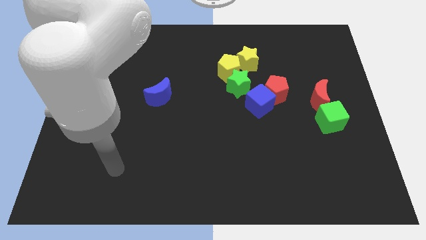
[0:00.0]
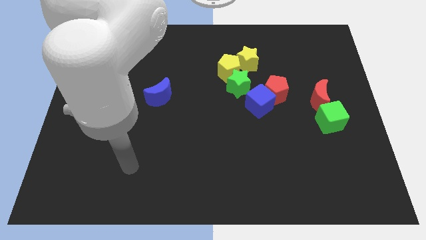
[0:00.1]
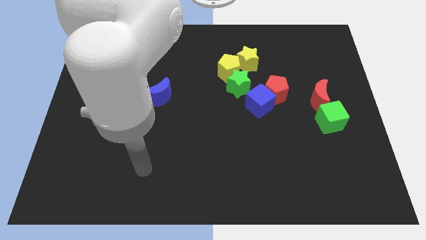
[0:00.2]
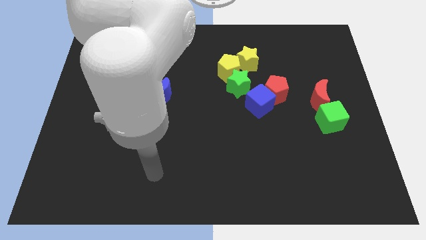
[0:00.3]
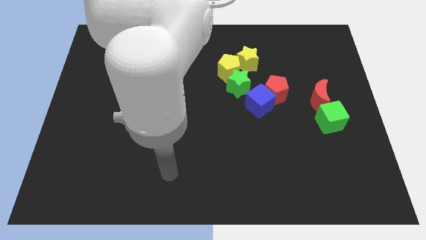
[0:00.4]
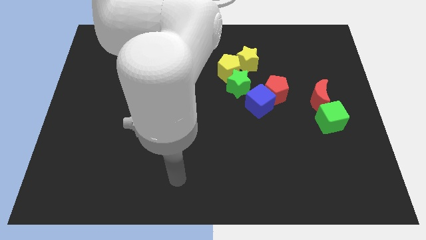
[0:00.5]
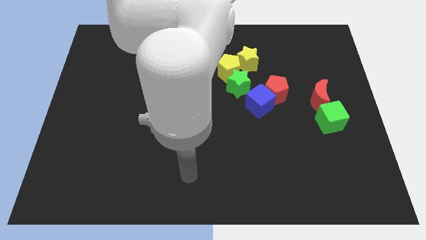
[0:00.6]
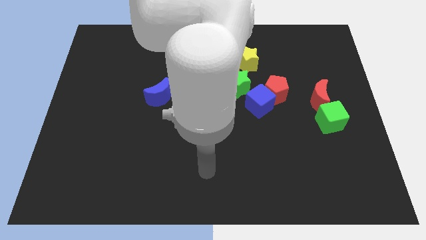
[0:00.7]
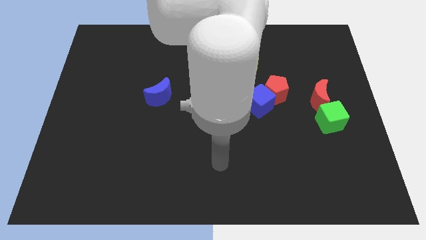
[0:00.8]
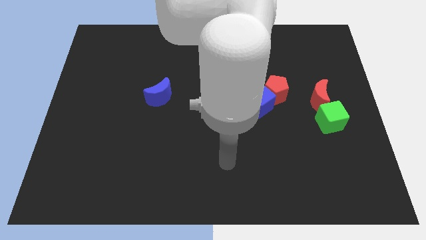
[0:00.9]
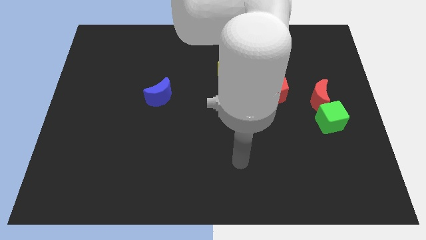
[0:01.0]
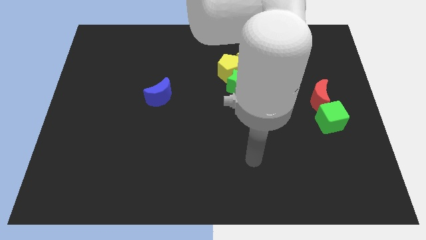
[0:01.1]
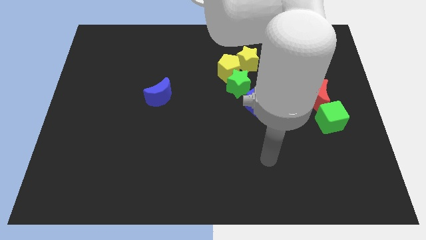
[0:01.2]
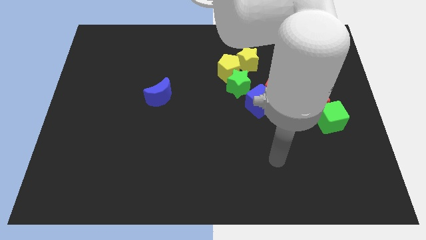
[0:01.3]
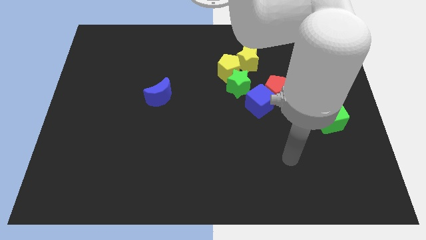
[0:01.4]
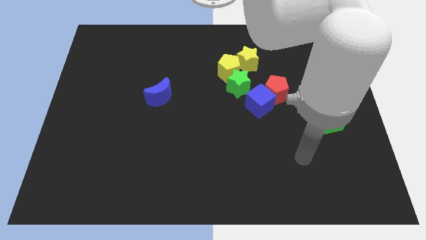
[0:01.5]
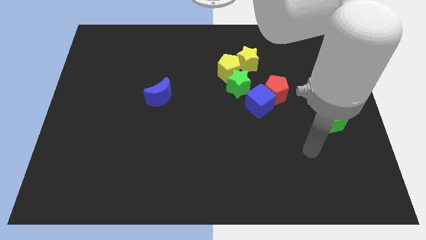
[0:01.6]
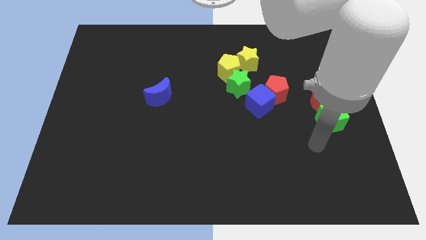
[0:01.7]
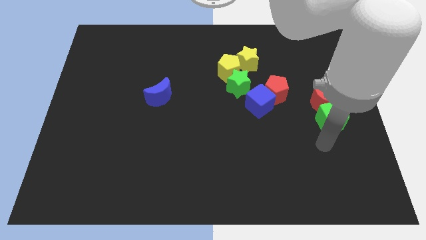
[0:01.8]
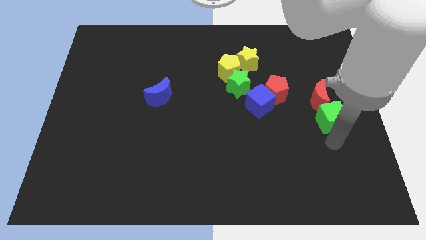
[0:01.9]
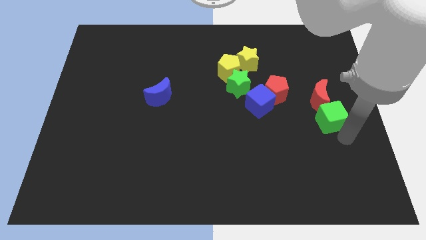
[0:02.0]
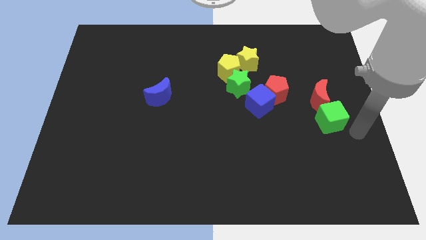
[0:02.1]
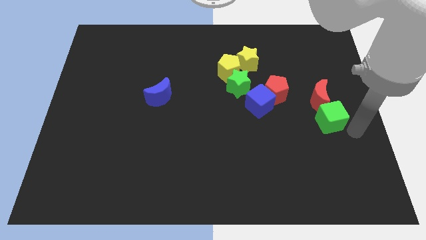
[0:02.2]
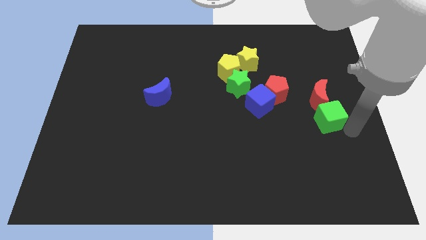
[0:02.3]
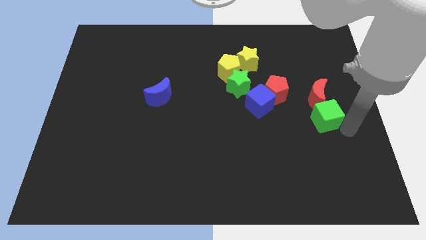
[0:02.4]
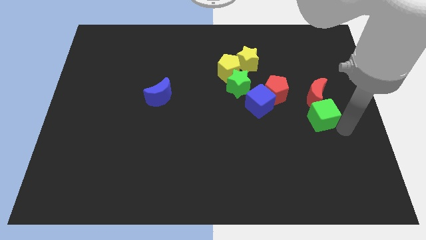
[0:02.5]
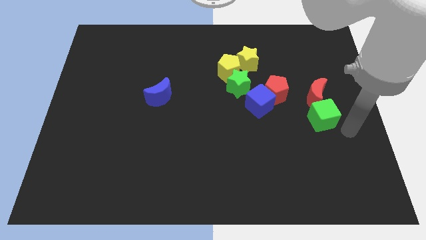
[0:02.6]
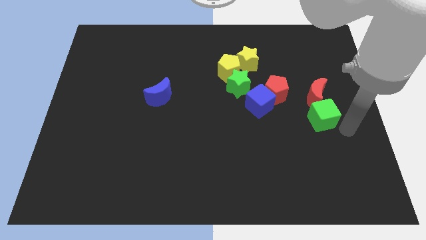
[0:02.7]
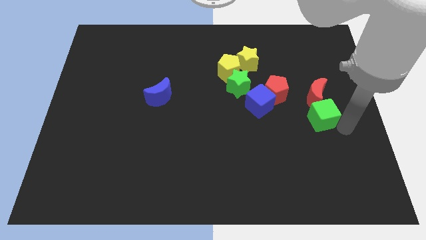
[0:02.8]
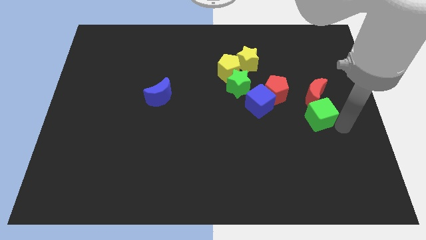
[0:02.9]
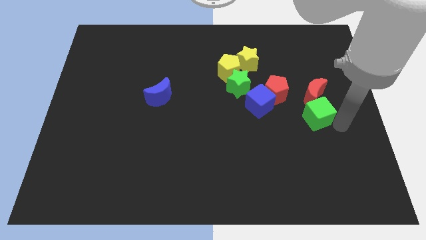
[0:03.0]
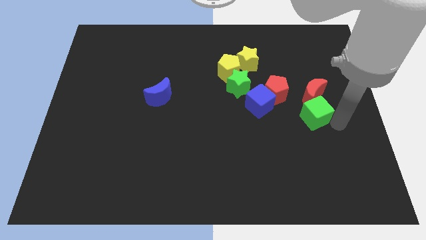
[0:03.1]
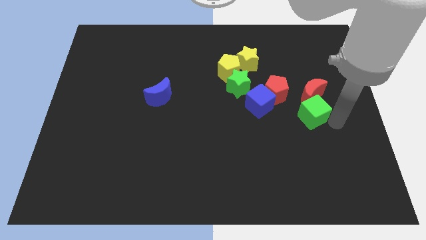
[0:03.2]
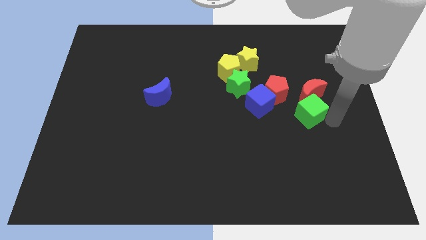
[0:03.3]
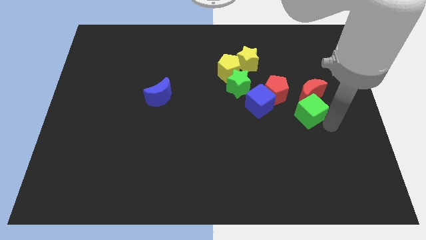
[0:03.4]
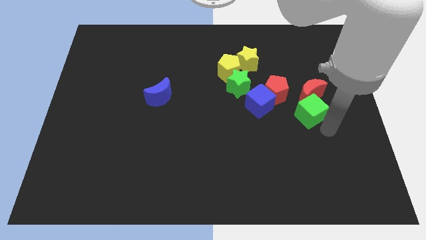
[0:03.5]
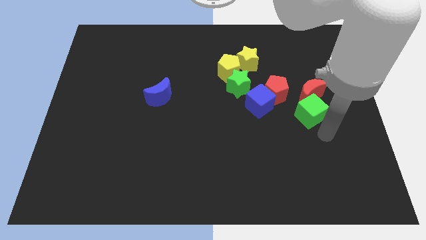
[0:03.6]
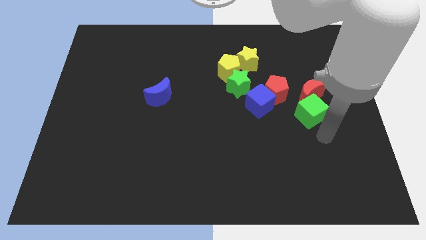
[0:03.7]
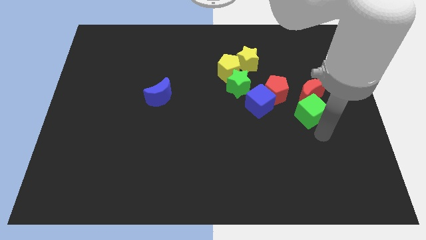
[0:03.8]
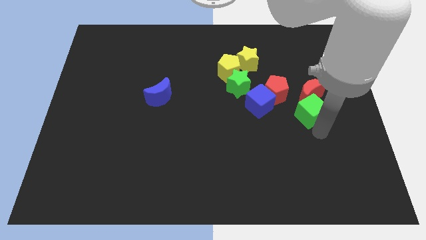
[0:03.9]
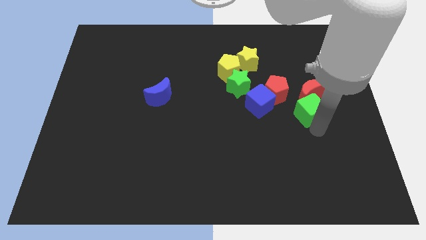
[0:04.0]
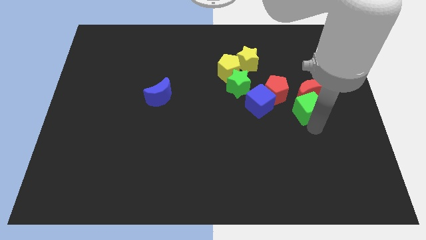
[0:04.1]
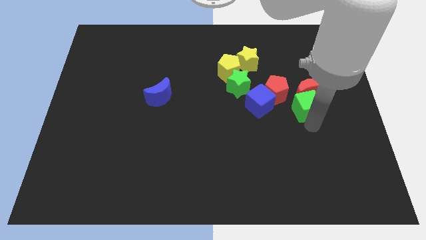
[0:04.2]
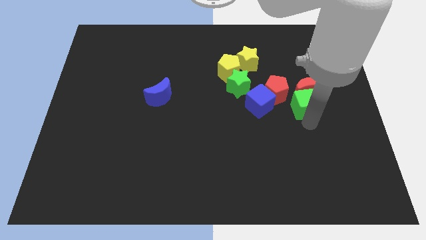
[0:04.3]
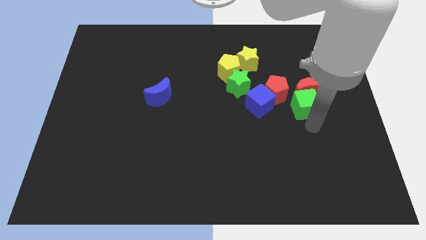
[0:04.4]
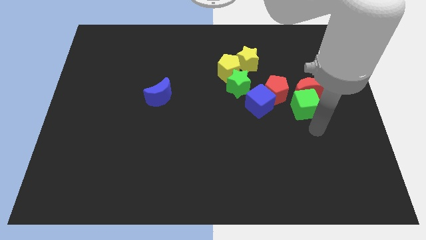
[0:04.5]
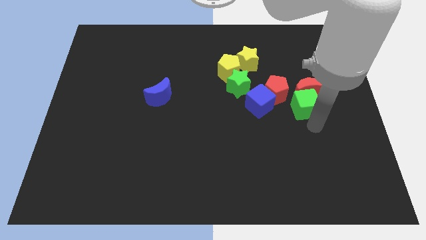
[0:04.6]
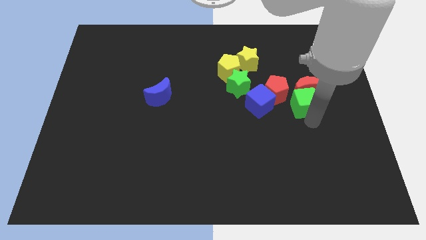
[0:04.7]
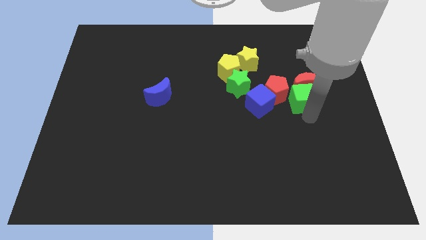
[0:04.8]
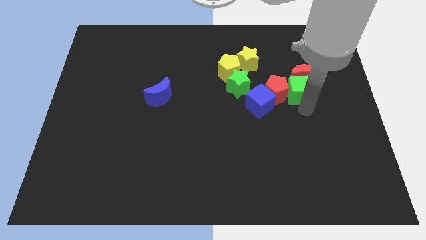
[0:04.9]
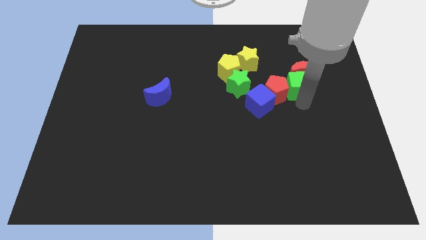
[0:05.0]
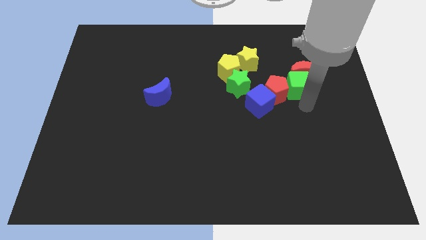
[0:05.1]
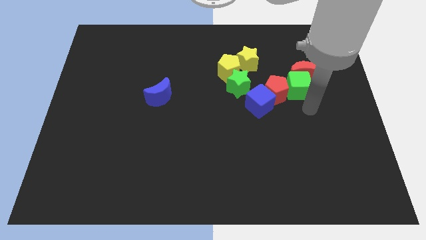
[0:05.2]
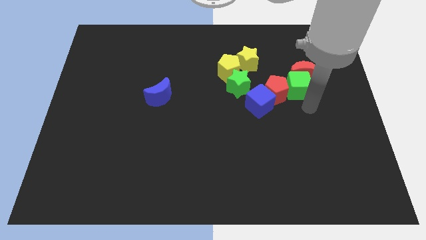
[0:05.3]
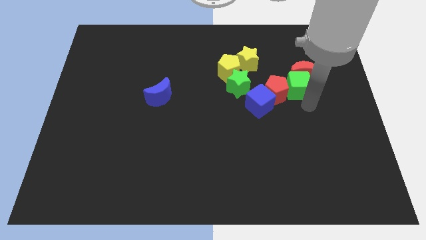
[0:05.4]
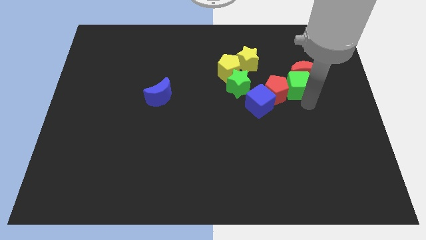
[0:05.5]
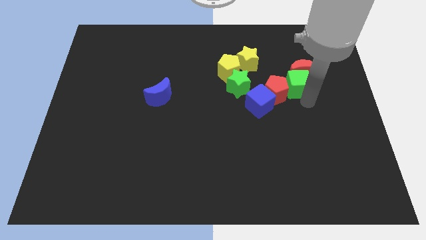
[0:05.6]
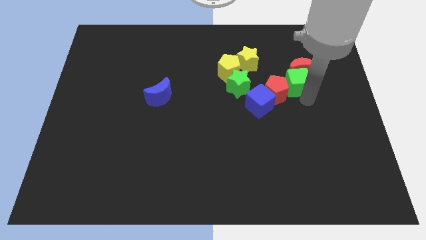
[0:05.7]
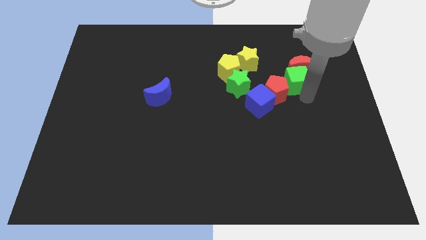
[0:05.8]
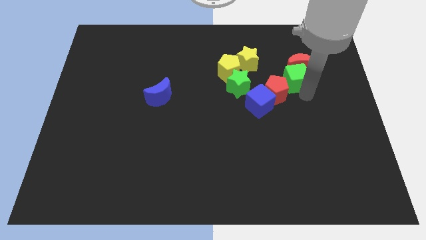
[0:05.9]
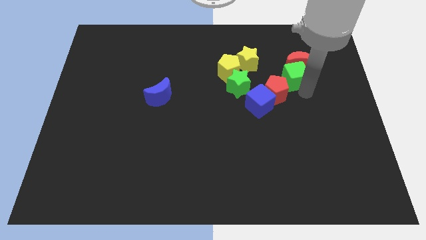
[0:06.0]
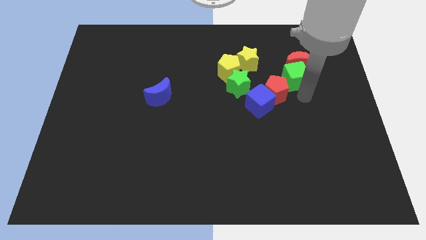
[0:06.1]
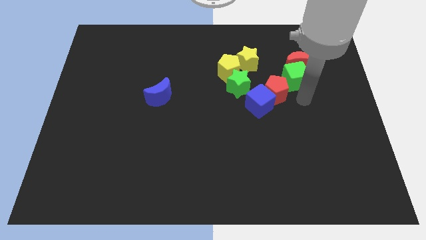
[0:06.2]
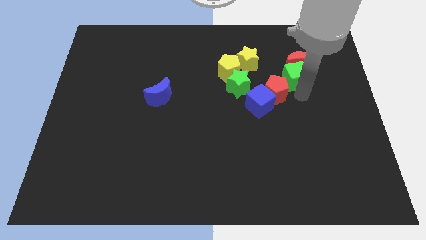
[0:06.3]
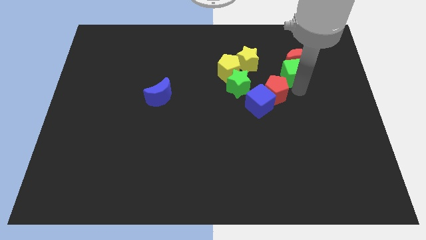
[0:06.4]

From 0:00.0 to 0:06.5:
slide the green cube right of the yellow star

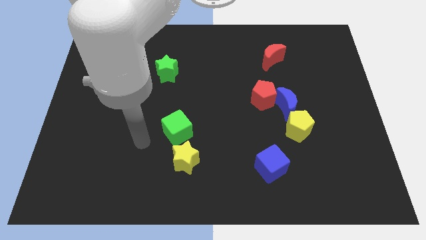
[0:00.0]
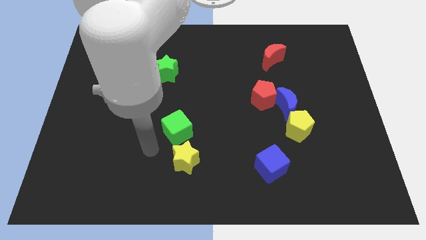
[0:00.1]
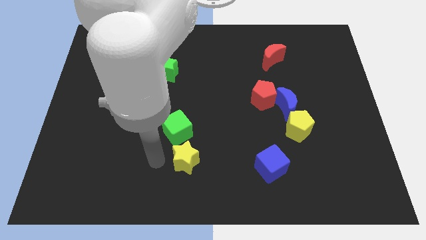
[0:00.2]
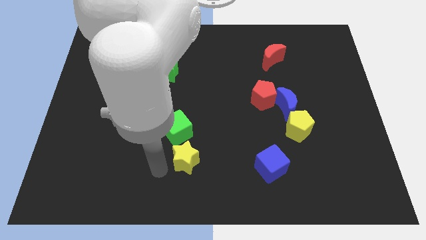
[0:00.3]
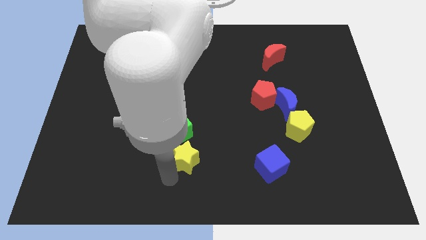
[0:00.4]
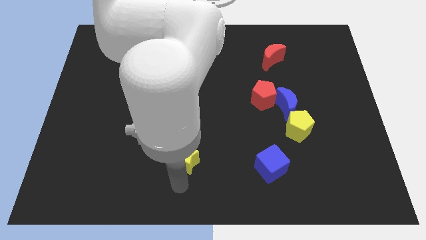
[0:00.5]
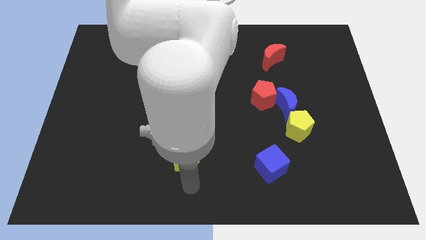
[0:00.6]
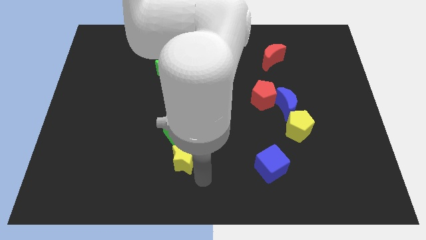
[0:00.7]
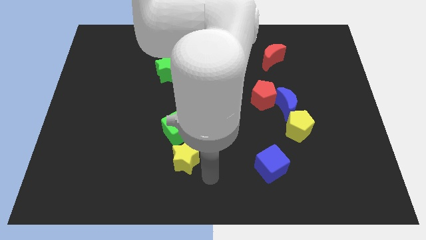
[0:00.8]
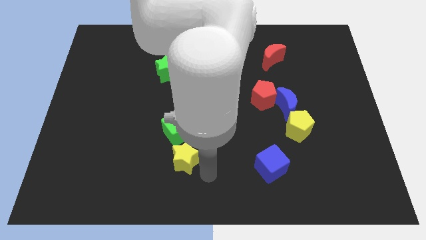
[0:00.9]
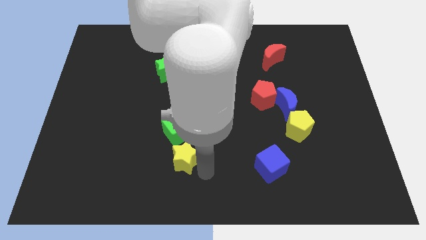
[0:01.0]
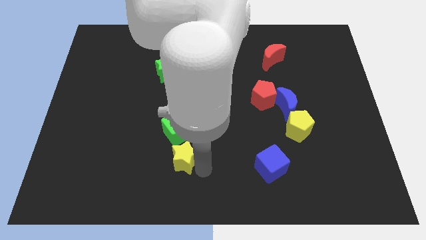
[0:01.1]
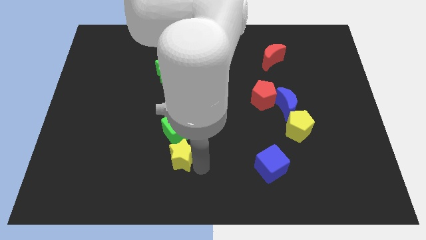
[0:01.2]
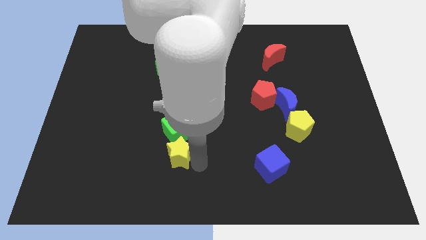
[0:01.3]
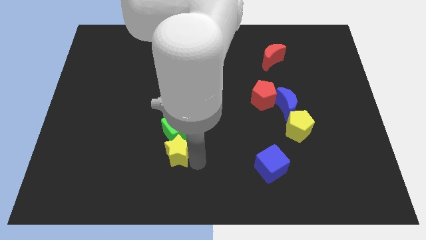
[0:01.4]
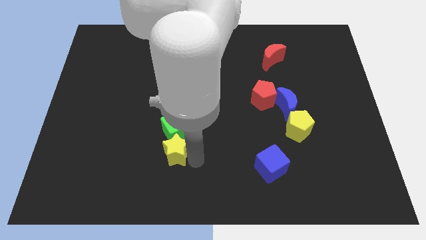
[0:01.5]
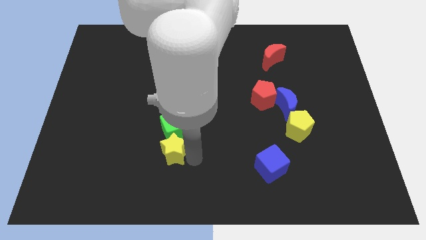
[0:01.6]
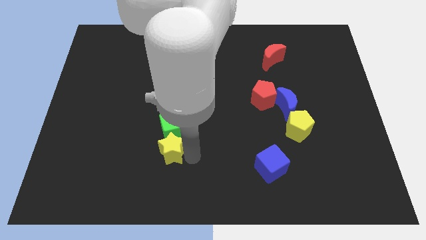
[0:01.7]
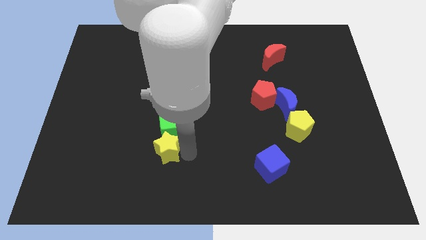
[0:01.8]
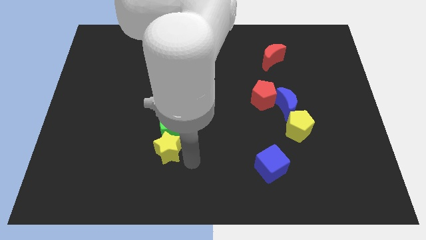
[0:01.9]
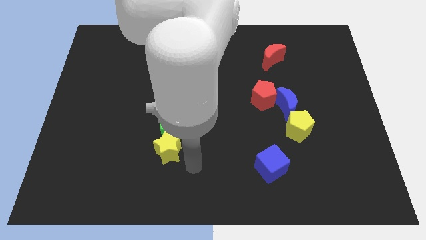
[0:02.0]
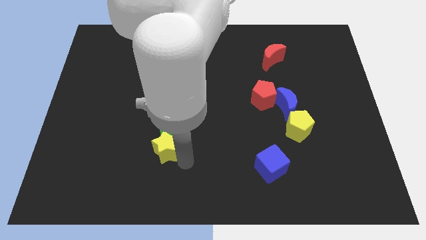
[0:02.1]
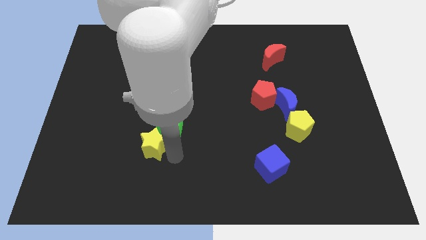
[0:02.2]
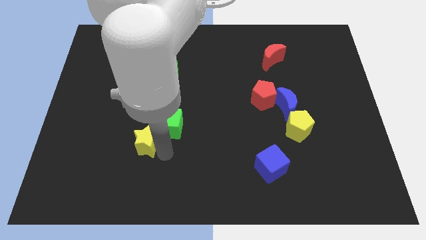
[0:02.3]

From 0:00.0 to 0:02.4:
put the yellow star to the left side of the green cube
